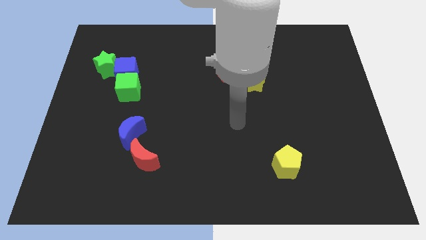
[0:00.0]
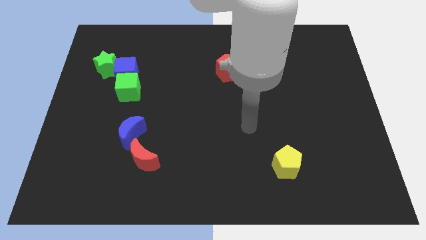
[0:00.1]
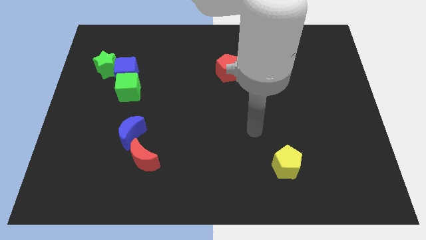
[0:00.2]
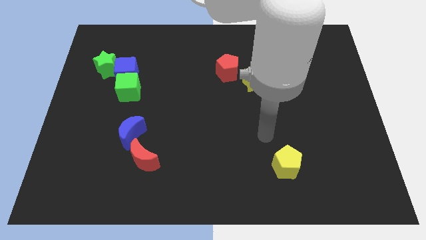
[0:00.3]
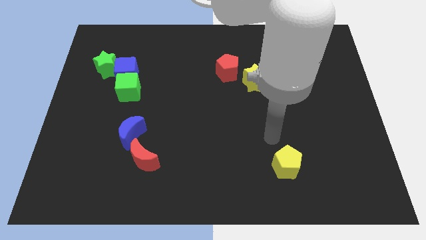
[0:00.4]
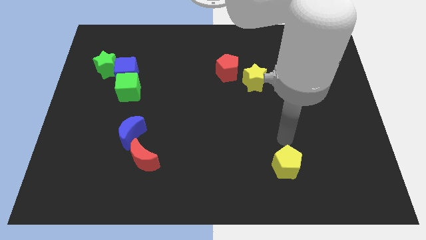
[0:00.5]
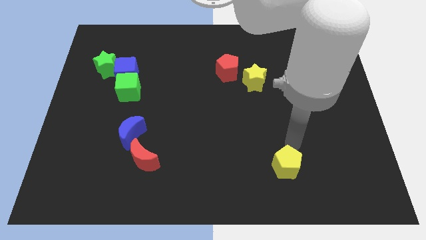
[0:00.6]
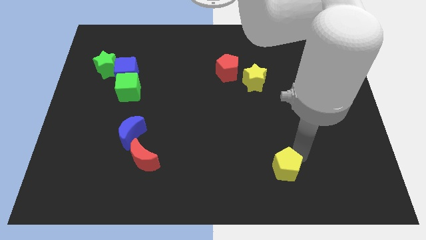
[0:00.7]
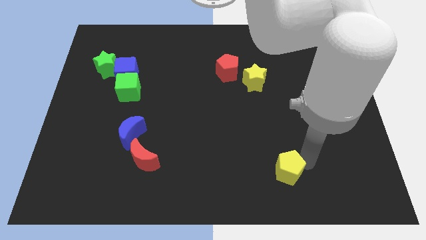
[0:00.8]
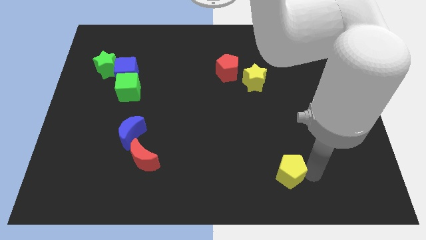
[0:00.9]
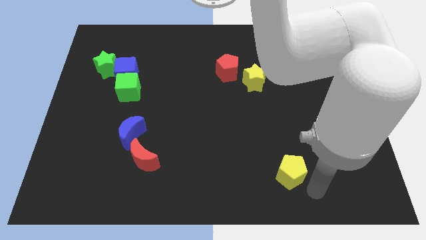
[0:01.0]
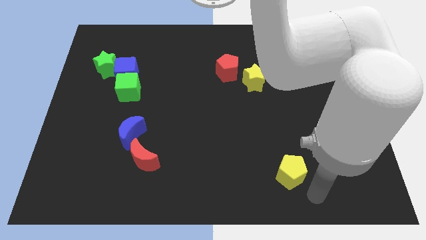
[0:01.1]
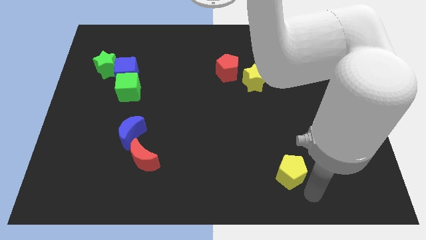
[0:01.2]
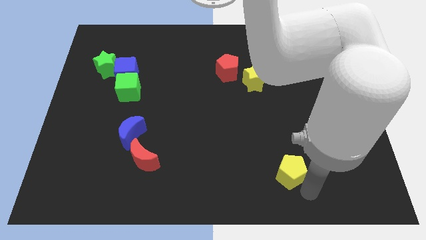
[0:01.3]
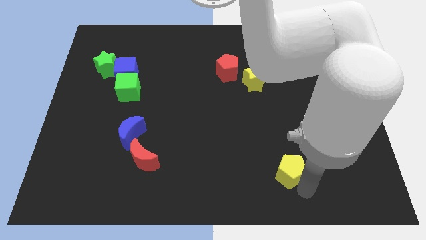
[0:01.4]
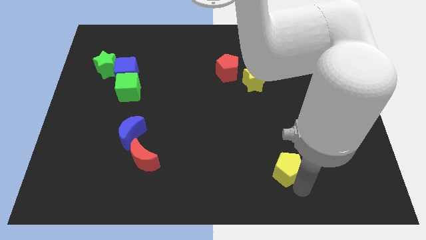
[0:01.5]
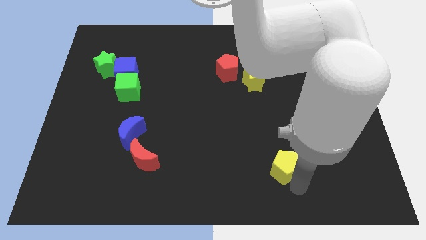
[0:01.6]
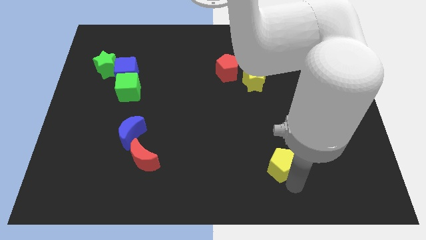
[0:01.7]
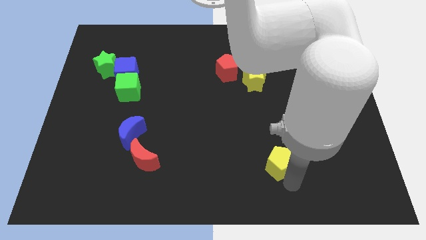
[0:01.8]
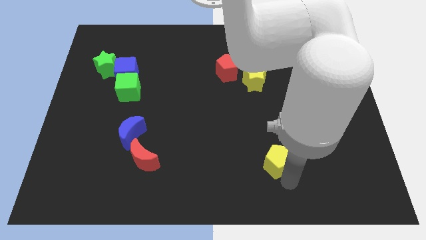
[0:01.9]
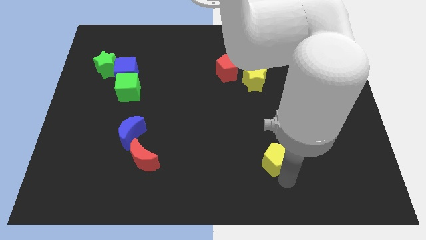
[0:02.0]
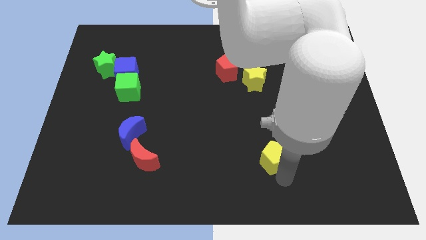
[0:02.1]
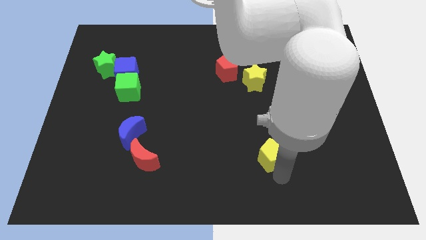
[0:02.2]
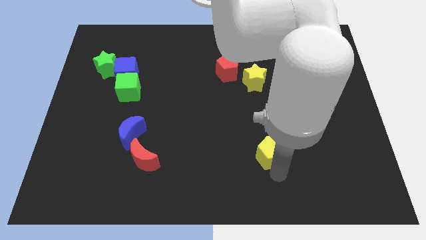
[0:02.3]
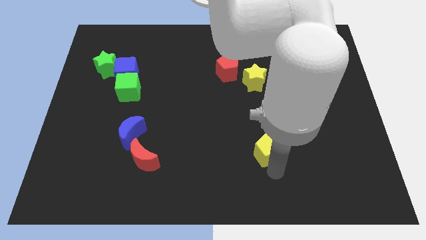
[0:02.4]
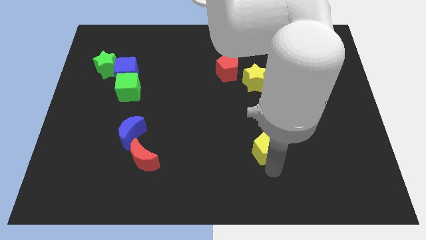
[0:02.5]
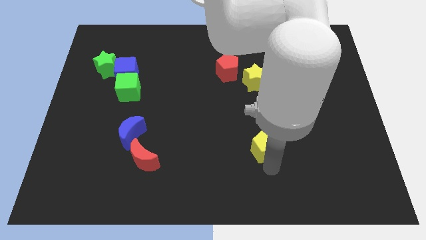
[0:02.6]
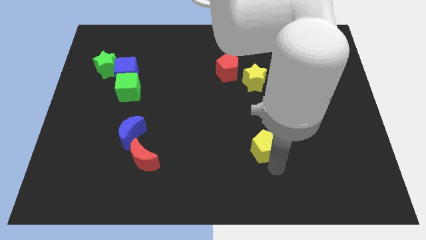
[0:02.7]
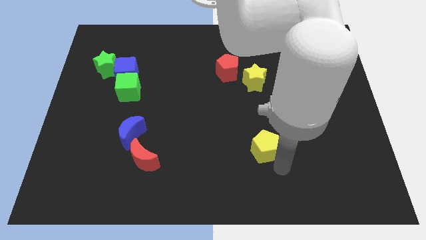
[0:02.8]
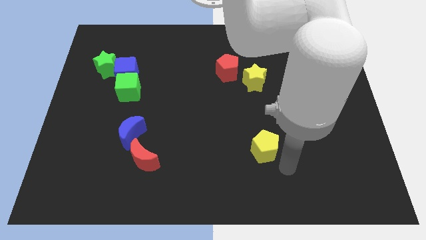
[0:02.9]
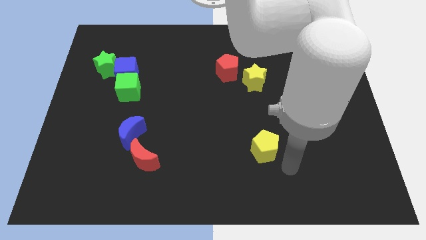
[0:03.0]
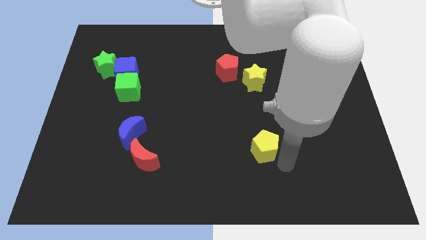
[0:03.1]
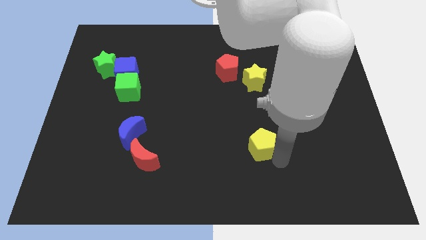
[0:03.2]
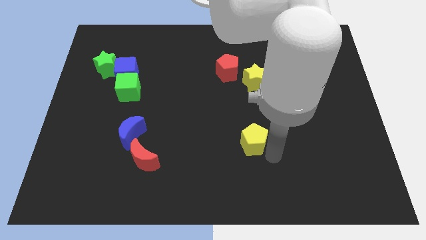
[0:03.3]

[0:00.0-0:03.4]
move the yellow pentagon a bit up and then to the left

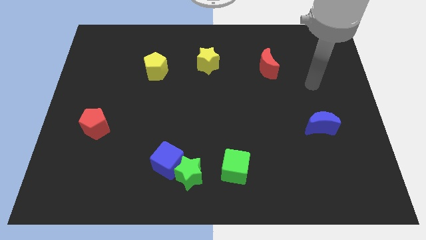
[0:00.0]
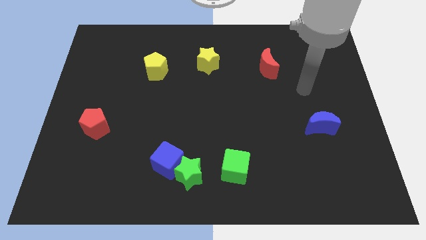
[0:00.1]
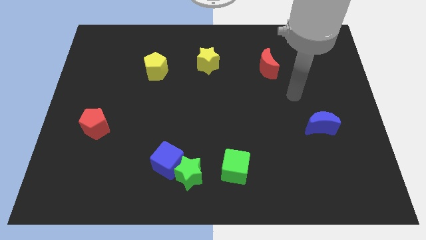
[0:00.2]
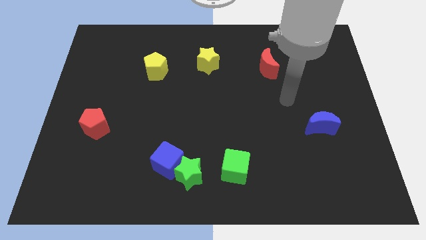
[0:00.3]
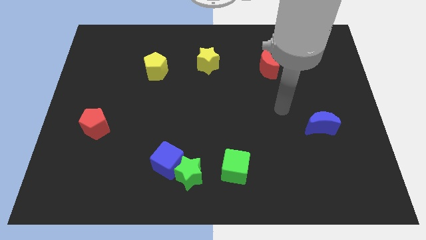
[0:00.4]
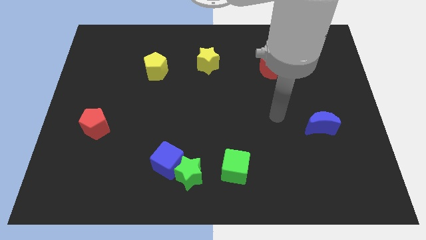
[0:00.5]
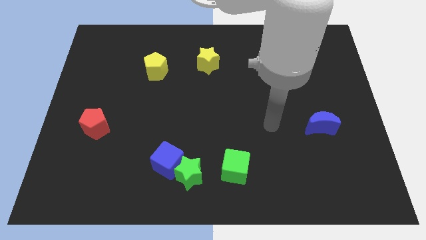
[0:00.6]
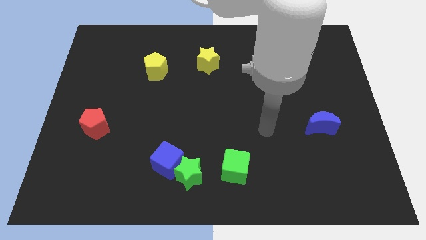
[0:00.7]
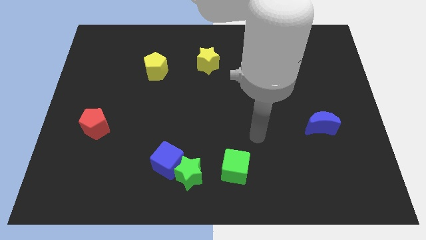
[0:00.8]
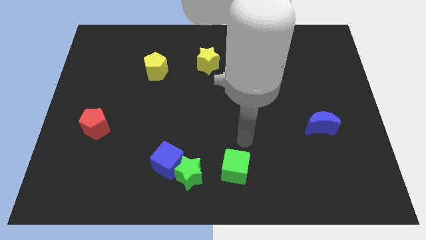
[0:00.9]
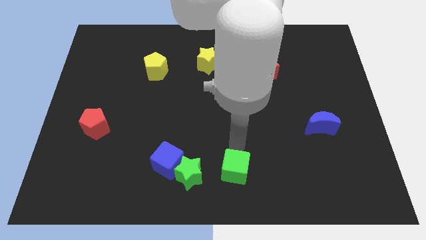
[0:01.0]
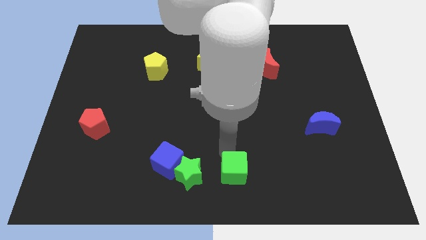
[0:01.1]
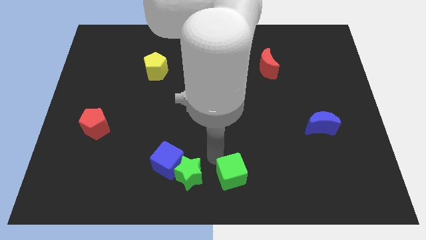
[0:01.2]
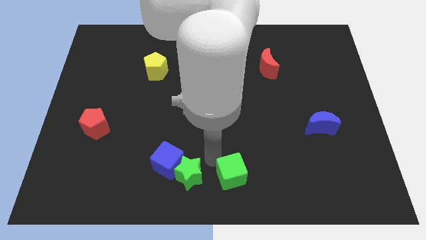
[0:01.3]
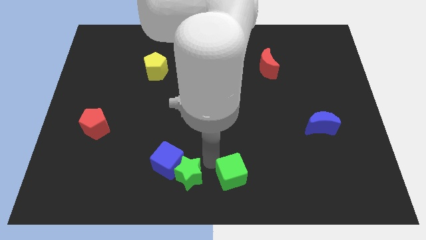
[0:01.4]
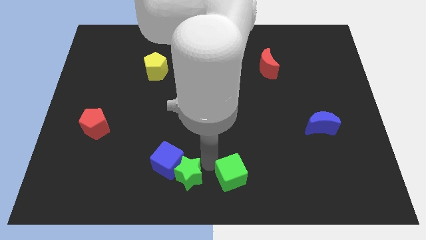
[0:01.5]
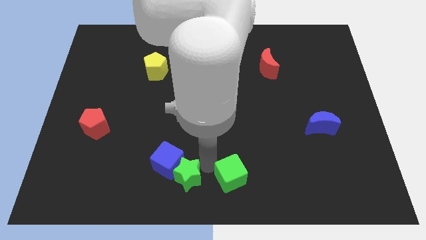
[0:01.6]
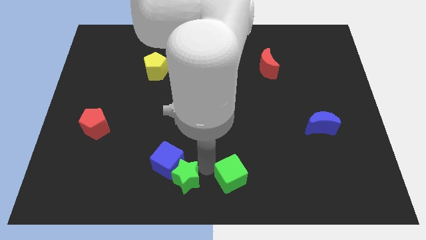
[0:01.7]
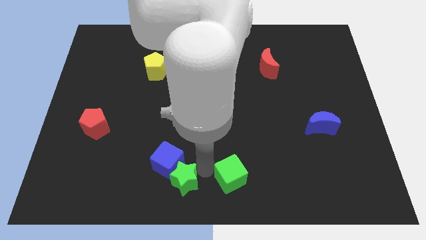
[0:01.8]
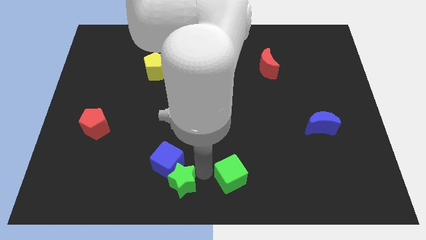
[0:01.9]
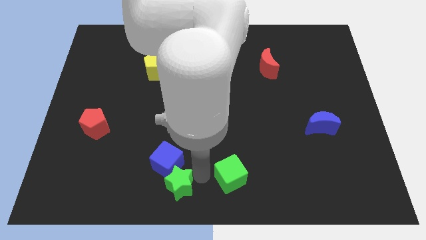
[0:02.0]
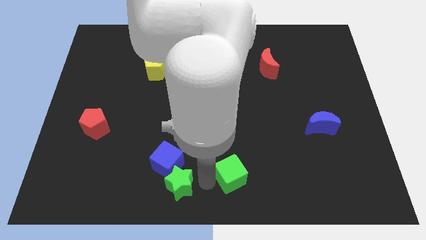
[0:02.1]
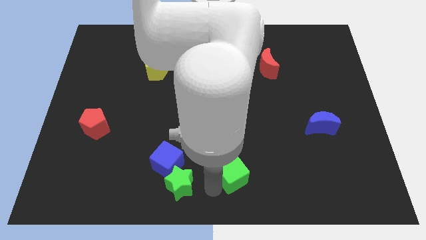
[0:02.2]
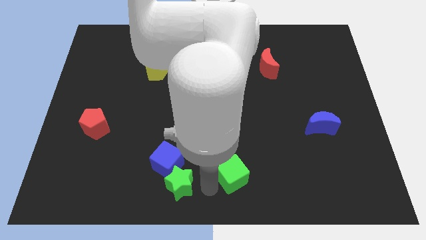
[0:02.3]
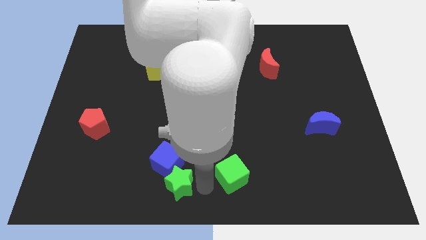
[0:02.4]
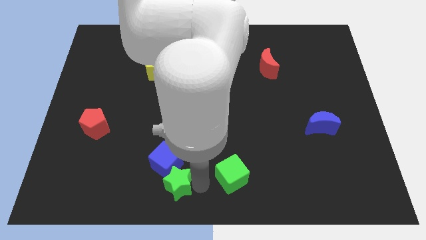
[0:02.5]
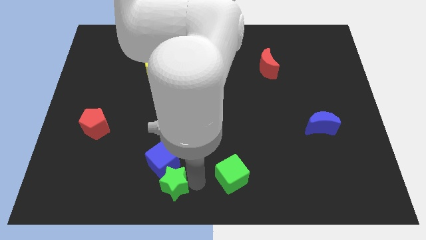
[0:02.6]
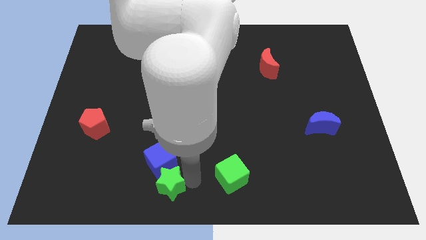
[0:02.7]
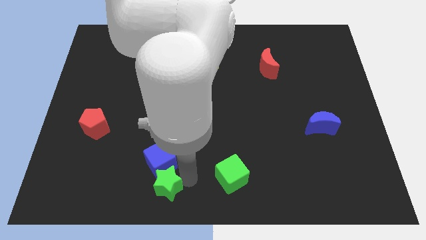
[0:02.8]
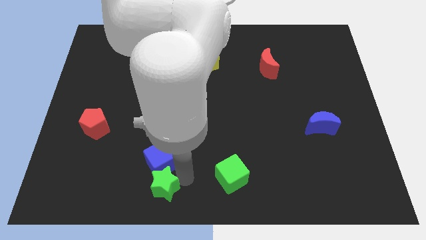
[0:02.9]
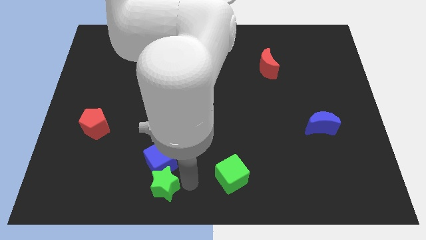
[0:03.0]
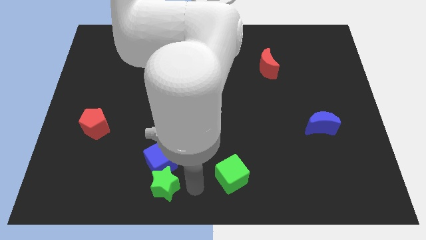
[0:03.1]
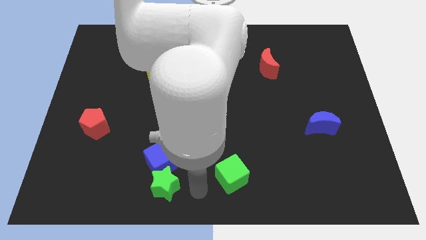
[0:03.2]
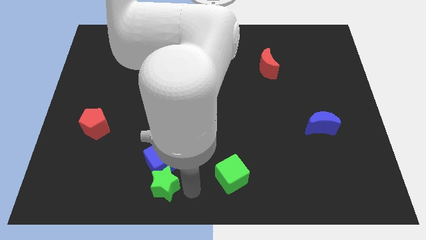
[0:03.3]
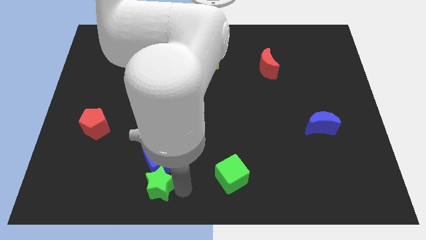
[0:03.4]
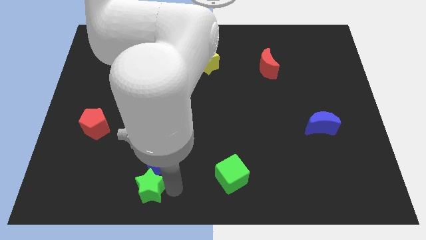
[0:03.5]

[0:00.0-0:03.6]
slightly slide the green star to the left

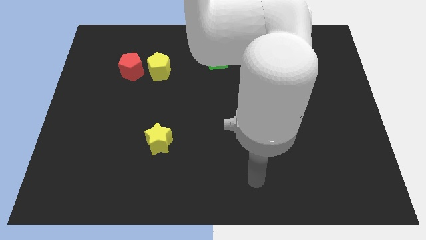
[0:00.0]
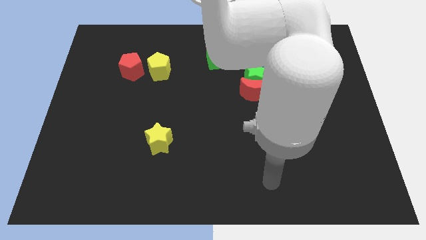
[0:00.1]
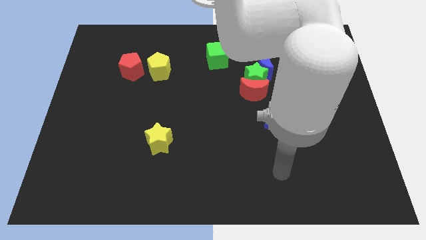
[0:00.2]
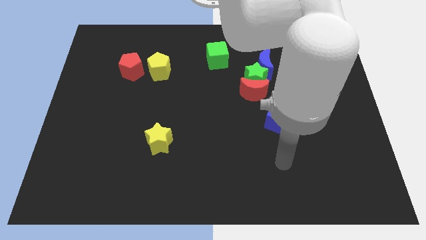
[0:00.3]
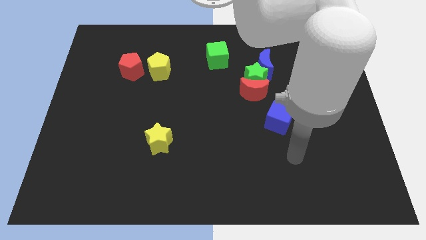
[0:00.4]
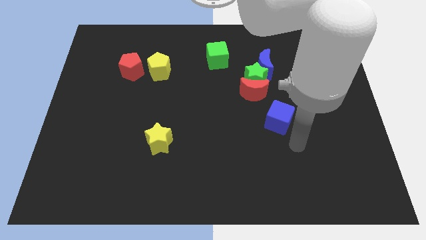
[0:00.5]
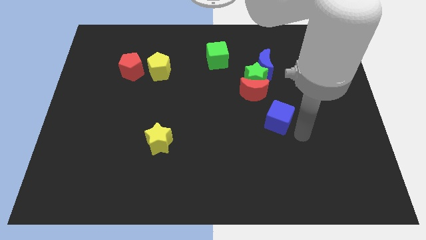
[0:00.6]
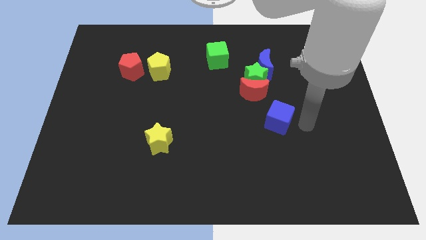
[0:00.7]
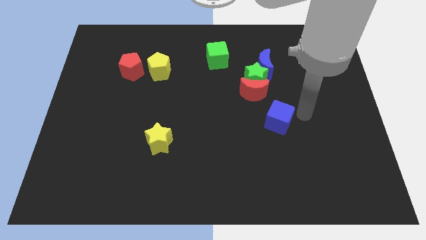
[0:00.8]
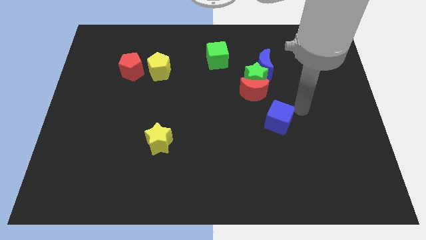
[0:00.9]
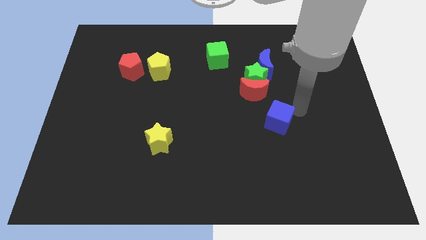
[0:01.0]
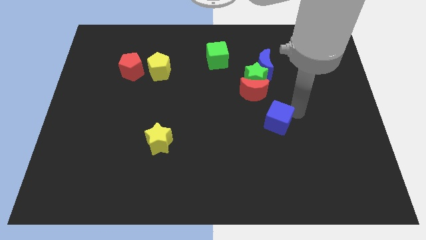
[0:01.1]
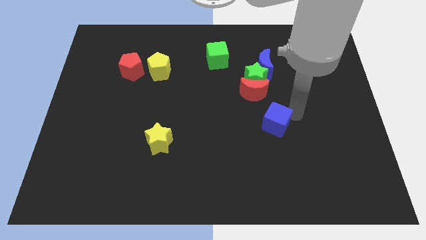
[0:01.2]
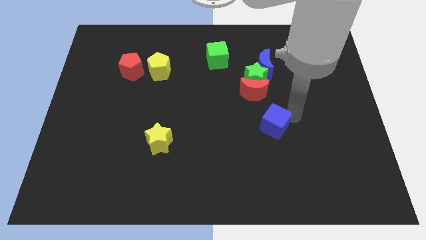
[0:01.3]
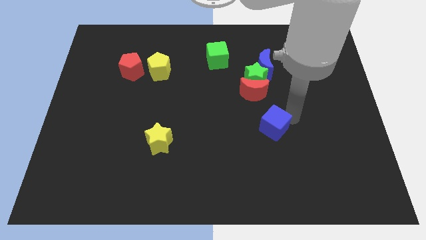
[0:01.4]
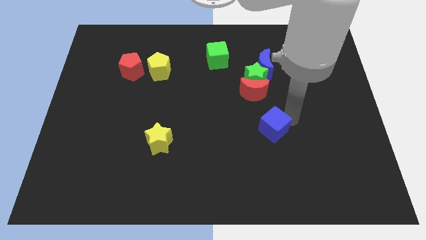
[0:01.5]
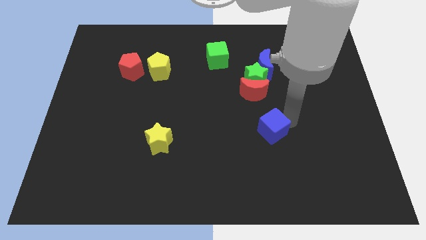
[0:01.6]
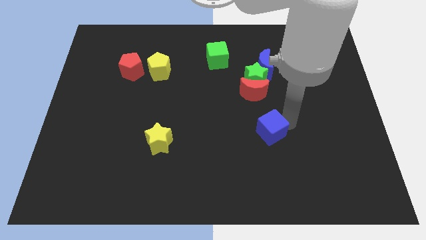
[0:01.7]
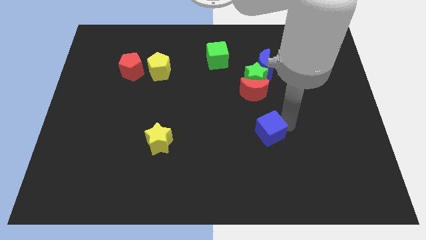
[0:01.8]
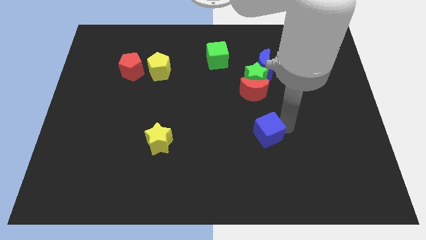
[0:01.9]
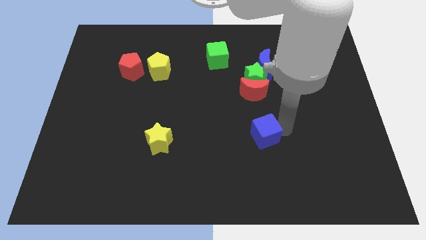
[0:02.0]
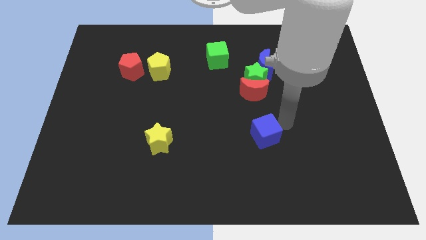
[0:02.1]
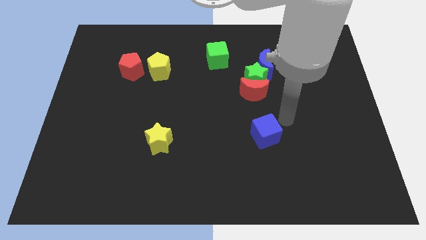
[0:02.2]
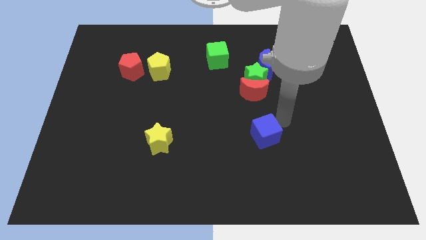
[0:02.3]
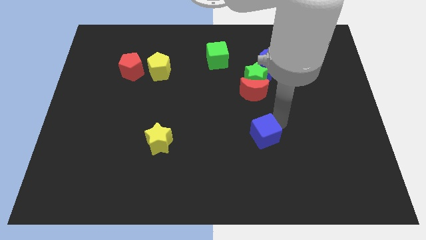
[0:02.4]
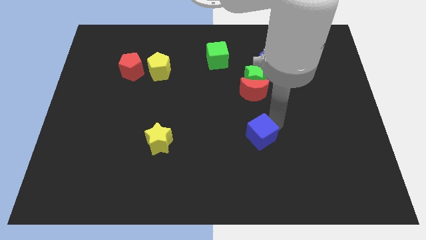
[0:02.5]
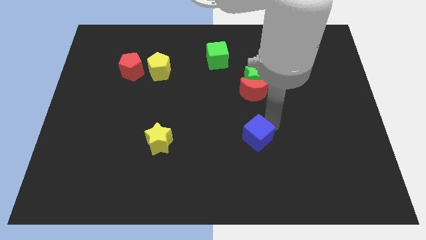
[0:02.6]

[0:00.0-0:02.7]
push the blue cube down and then to the left a bit
